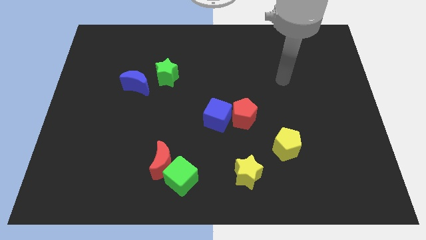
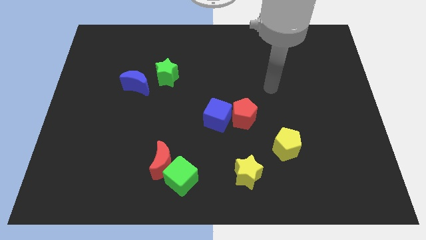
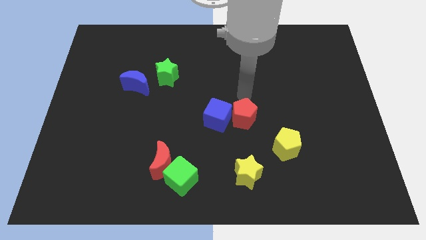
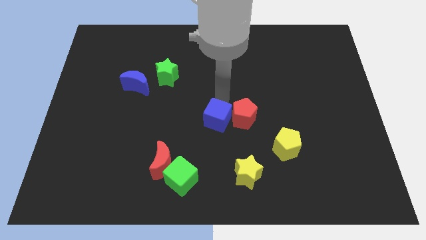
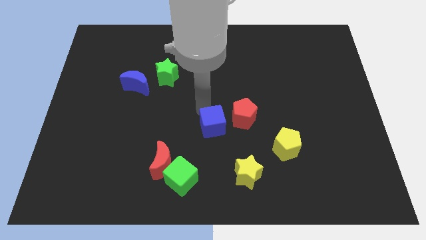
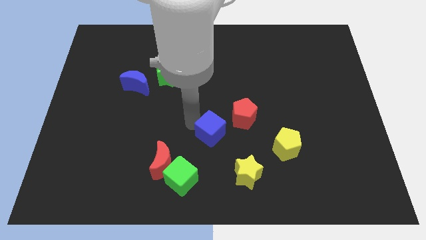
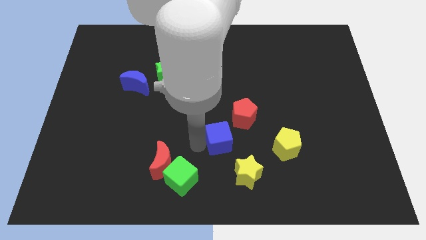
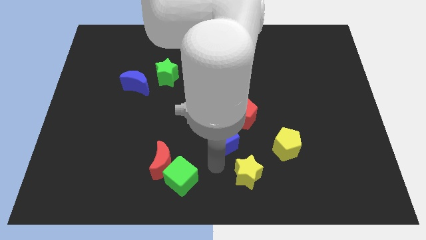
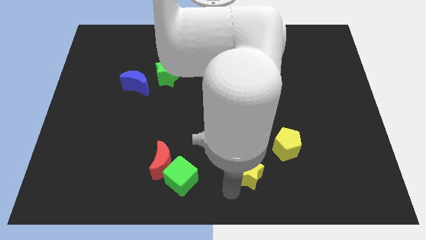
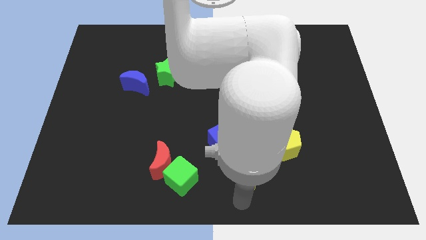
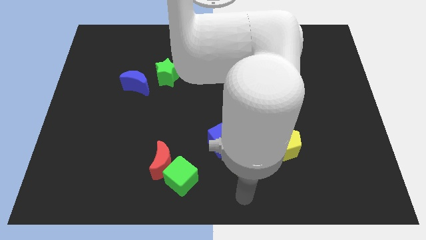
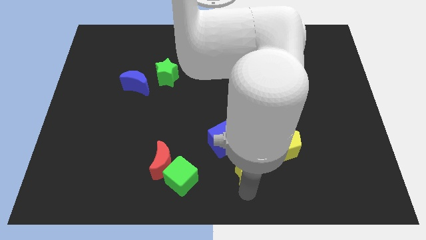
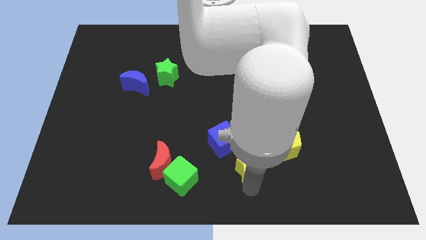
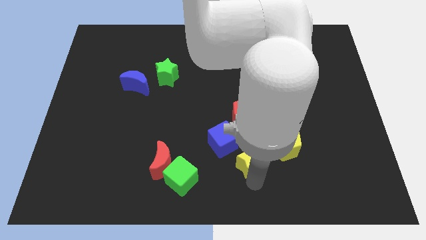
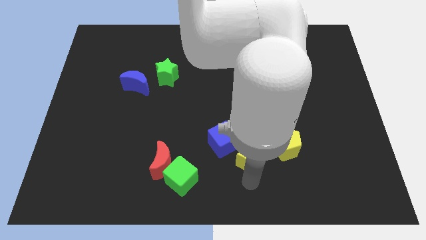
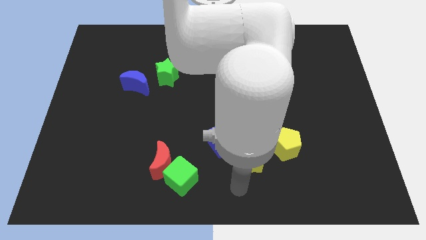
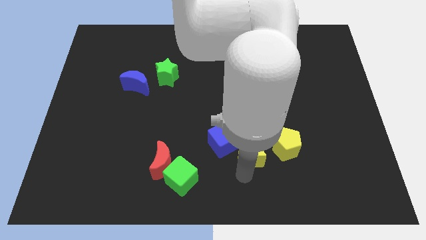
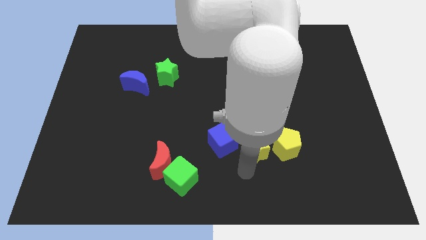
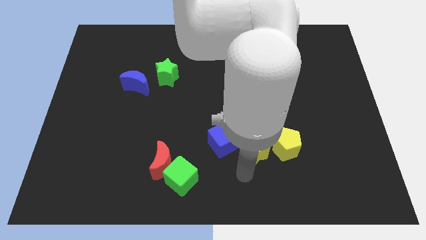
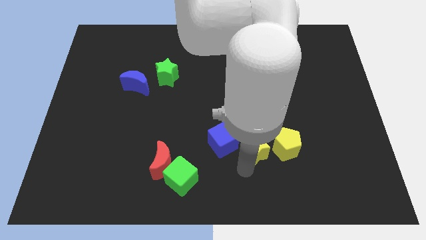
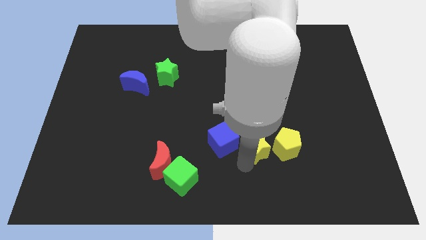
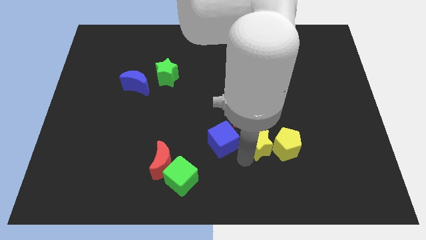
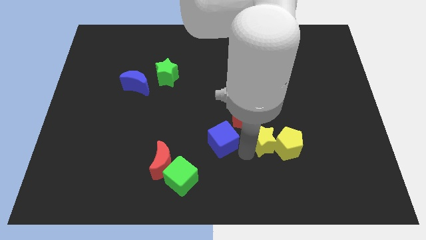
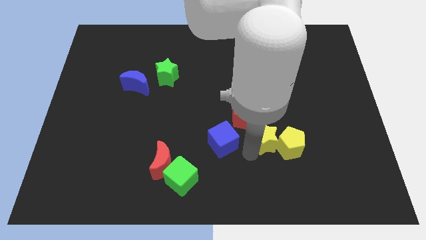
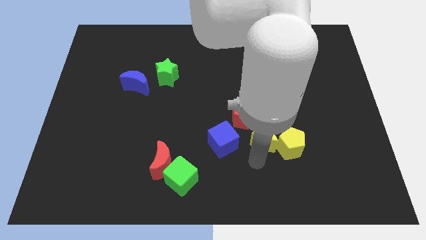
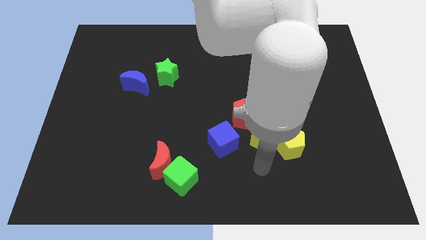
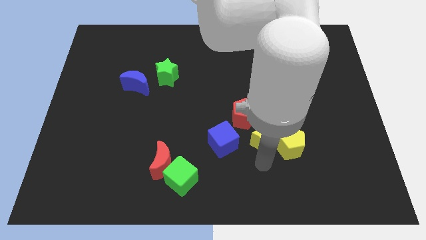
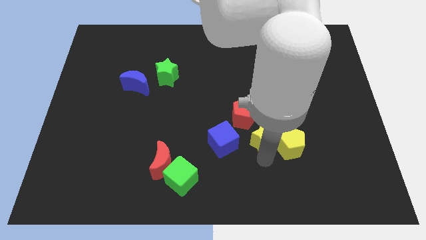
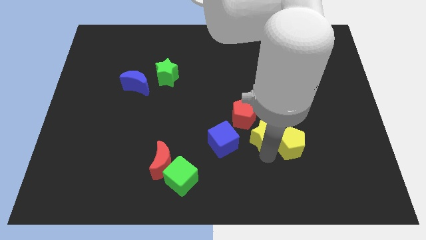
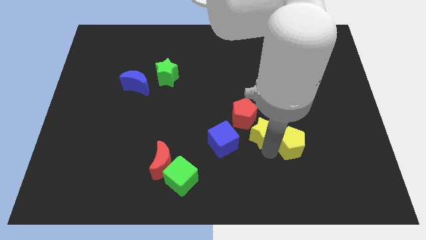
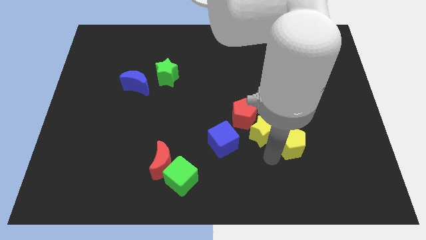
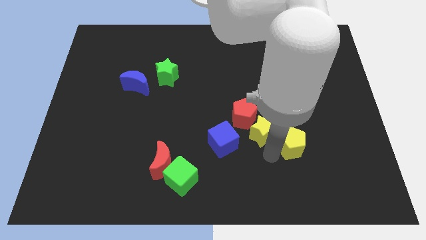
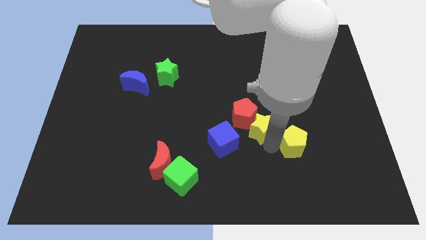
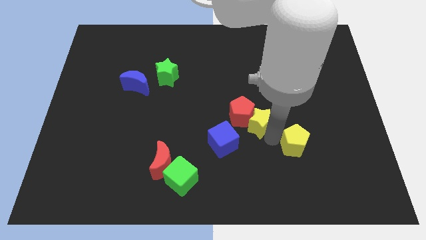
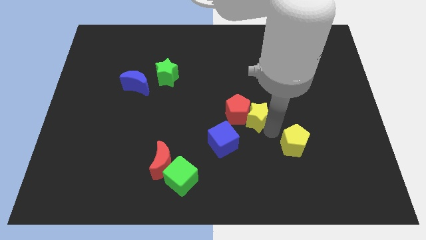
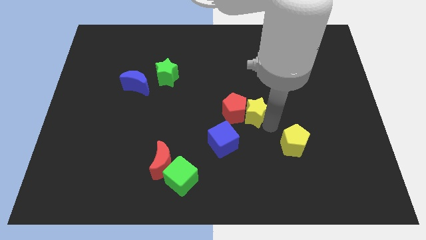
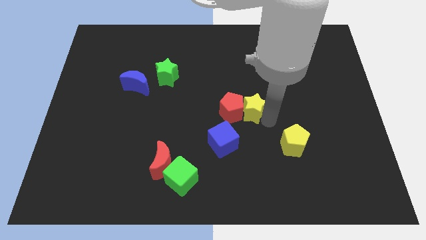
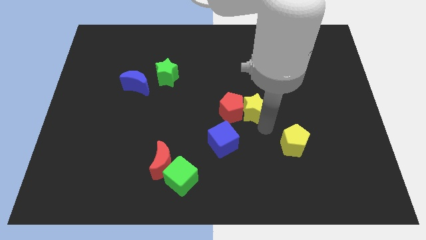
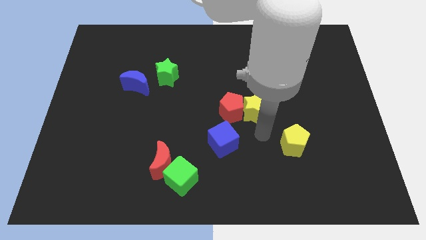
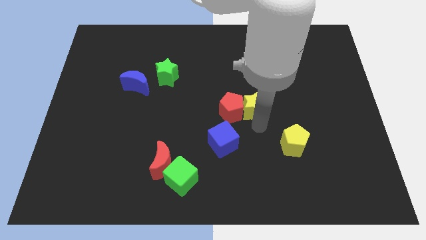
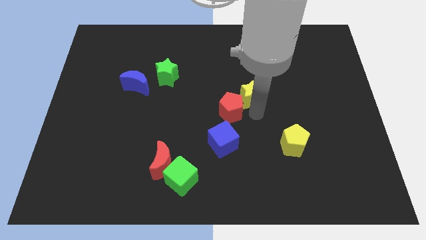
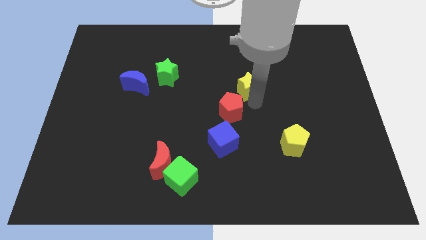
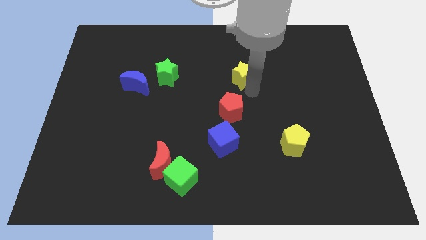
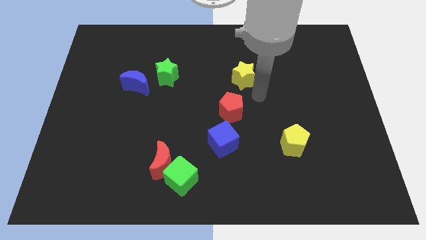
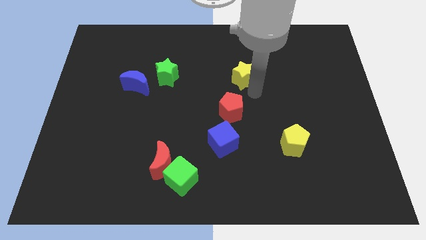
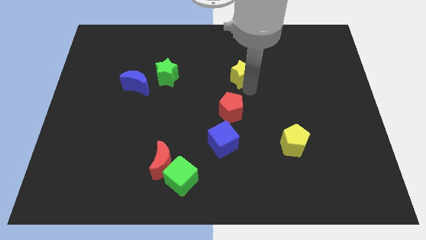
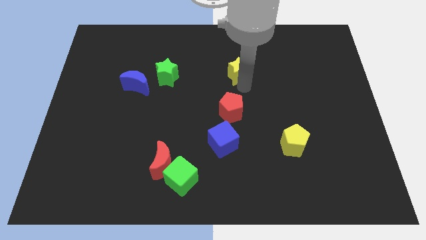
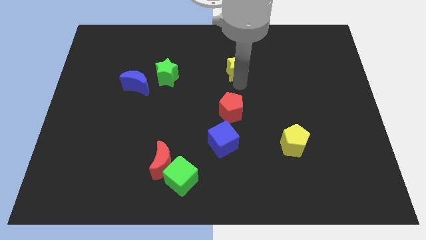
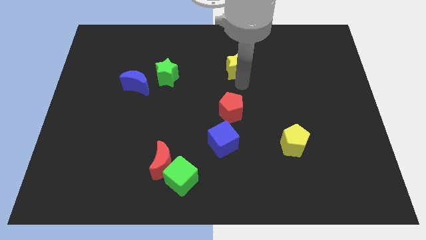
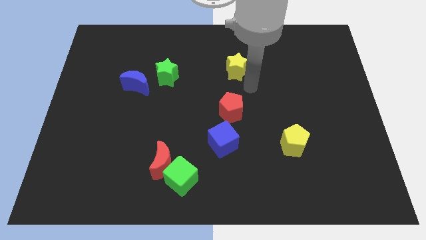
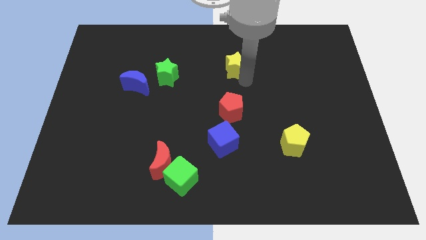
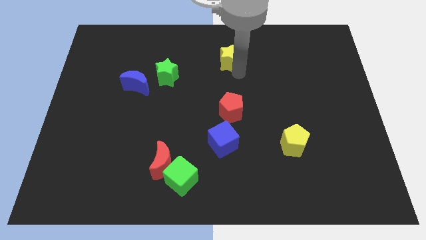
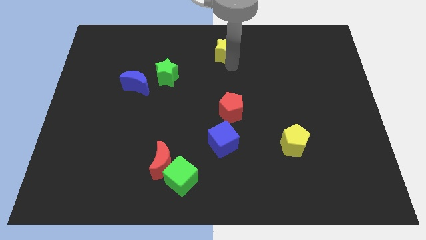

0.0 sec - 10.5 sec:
push the yellow star to the towards your base

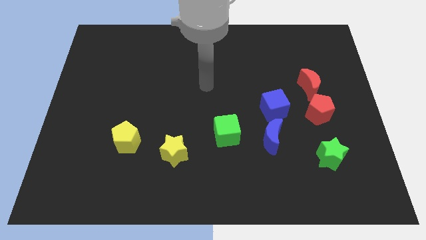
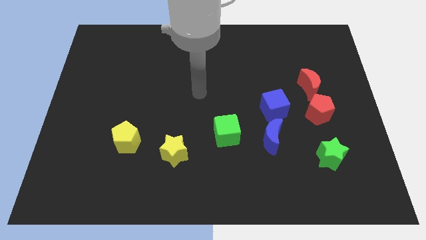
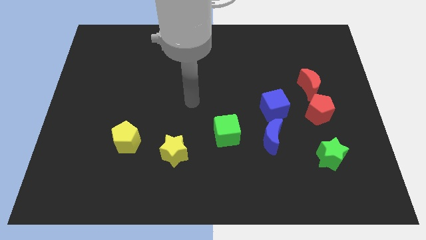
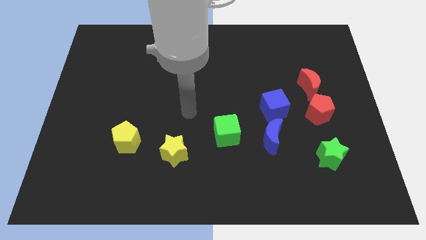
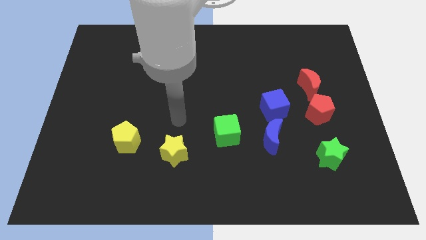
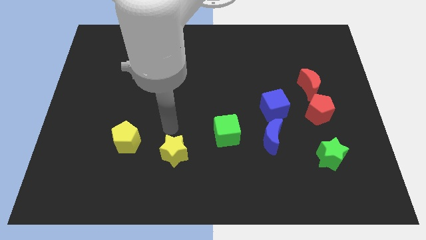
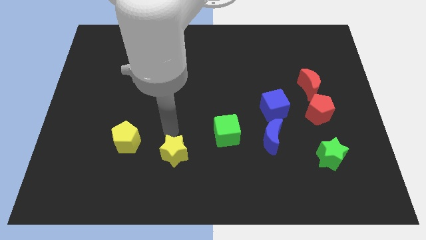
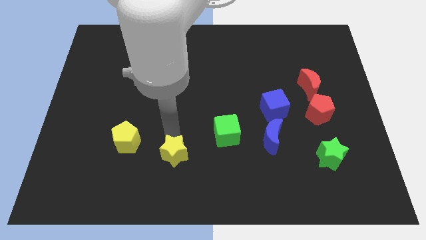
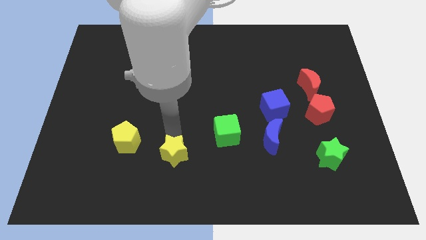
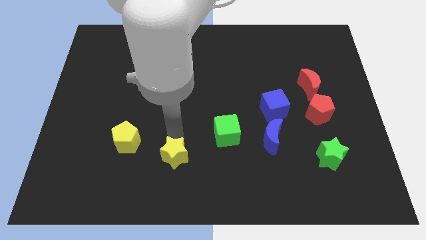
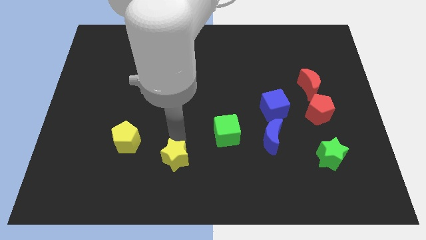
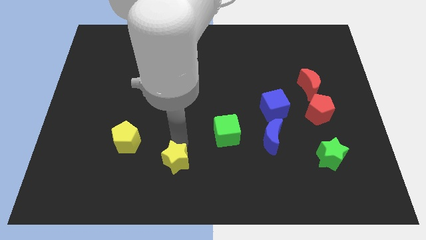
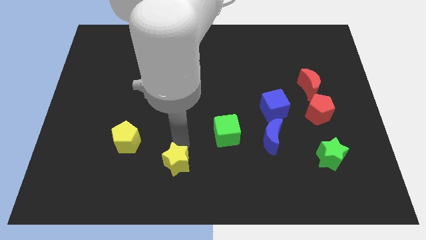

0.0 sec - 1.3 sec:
put the yellow star to the bottom side
